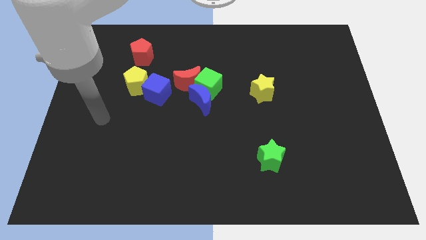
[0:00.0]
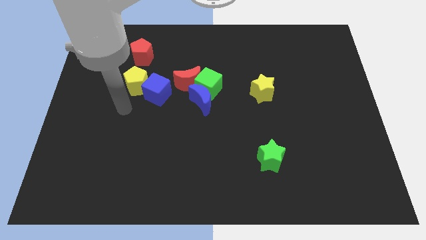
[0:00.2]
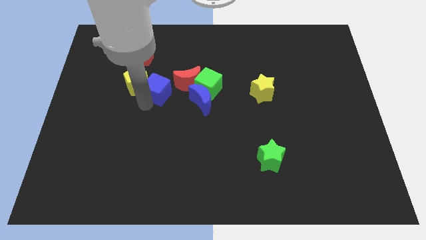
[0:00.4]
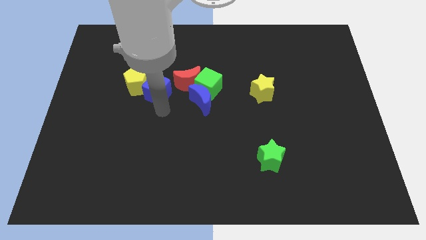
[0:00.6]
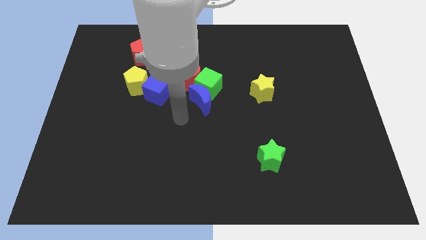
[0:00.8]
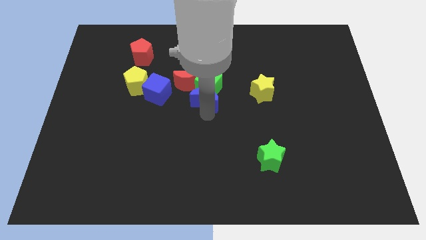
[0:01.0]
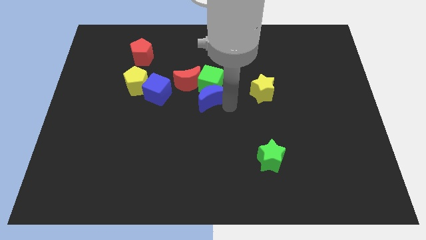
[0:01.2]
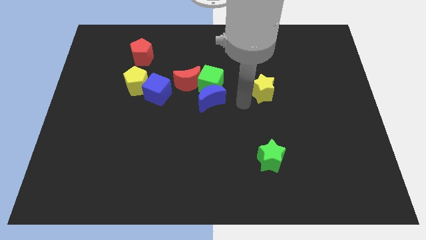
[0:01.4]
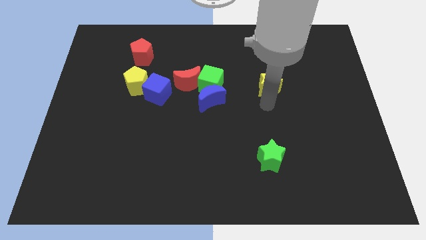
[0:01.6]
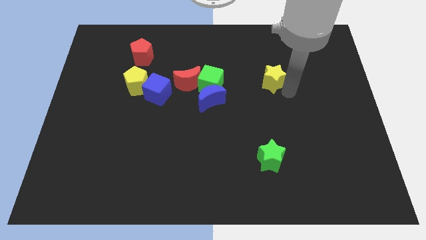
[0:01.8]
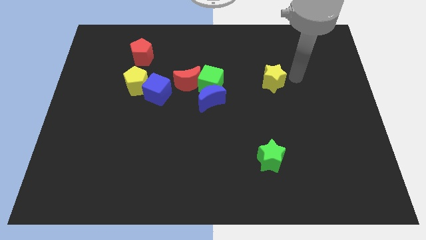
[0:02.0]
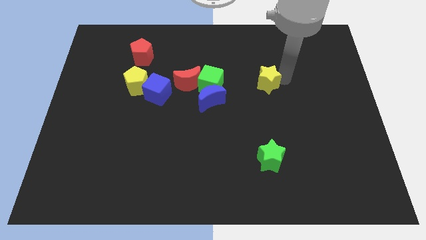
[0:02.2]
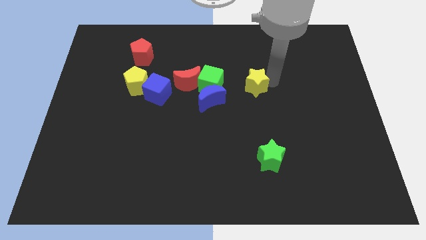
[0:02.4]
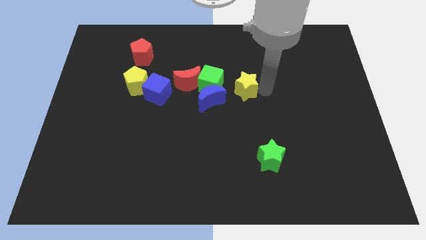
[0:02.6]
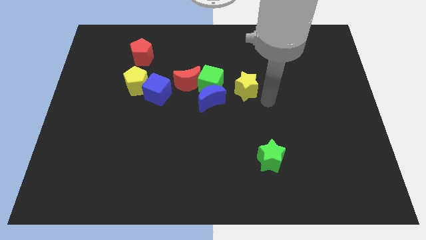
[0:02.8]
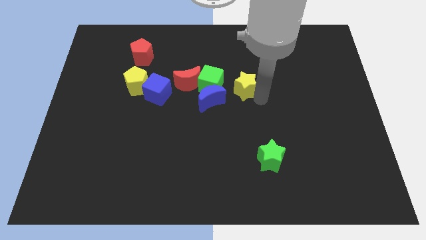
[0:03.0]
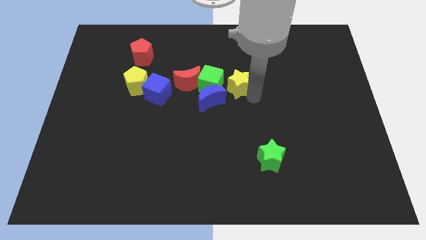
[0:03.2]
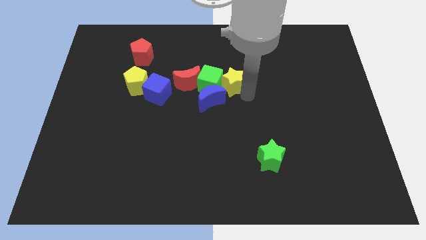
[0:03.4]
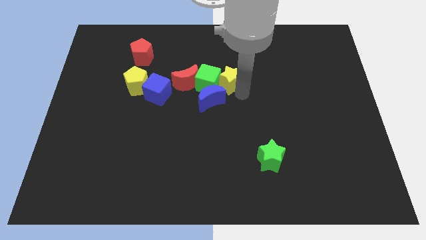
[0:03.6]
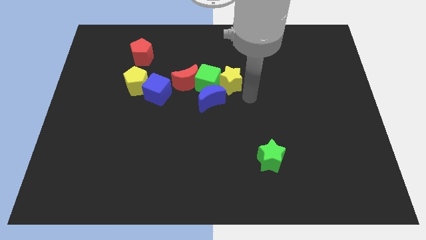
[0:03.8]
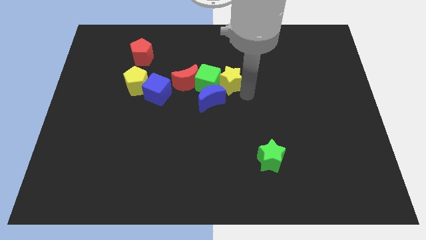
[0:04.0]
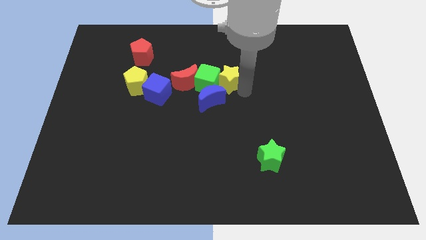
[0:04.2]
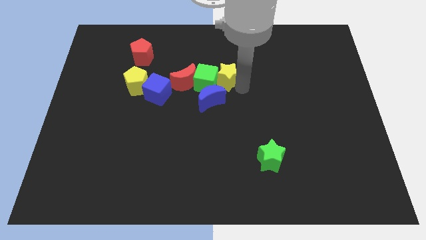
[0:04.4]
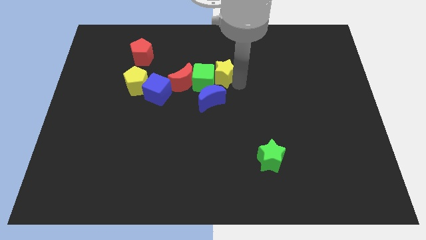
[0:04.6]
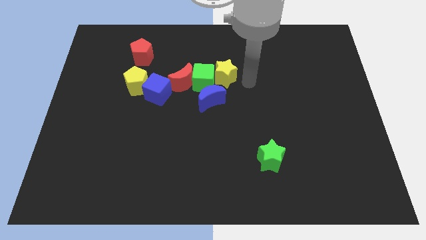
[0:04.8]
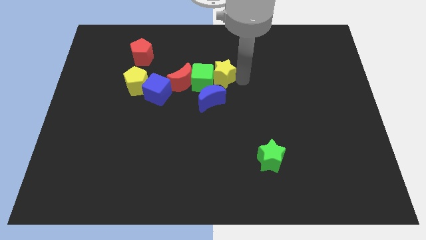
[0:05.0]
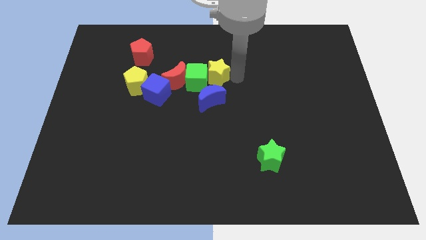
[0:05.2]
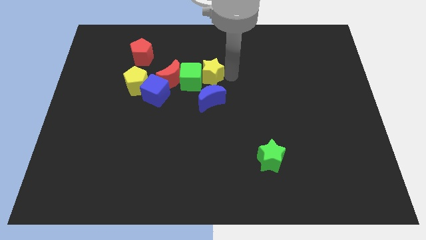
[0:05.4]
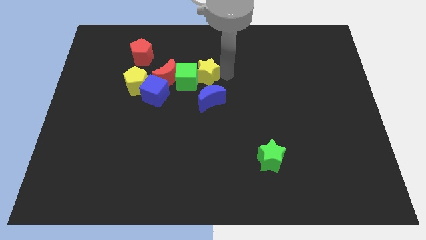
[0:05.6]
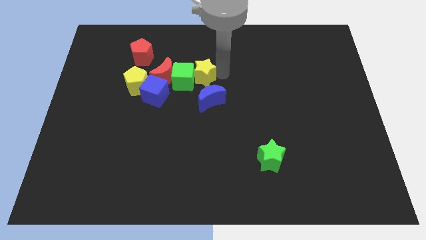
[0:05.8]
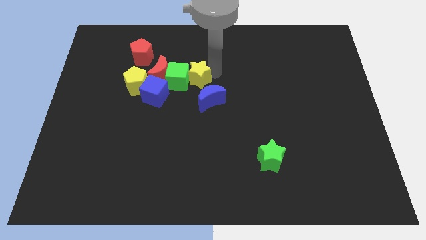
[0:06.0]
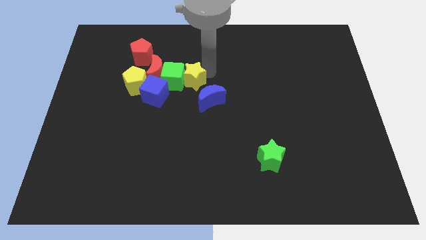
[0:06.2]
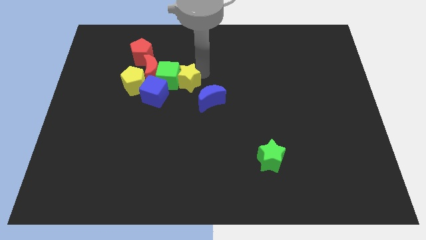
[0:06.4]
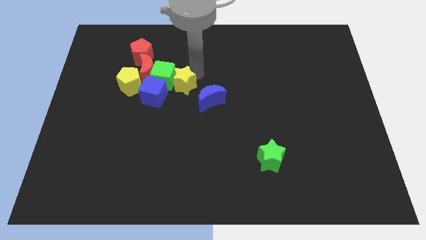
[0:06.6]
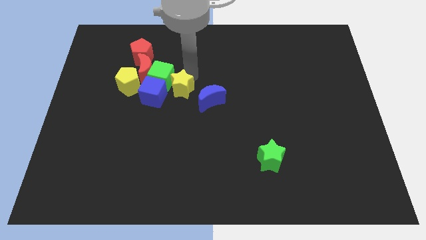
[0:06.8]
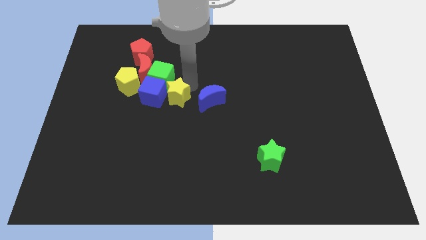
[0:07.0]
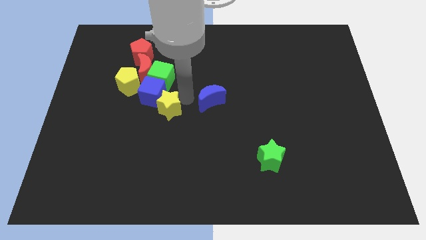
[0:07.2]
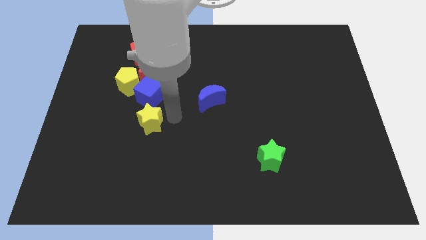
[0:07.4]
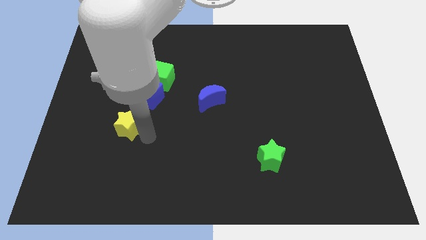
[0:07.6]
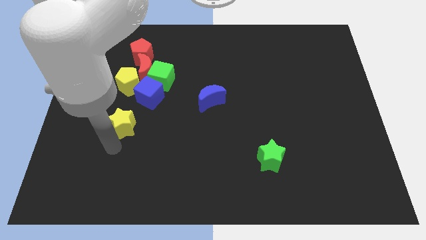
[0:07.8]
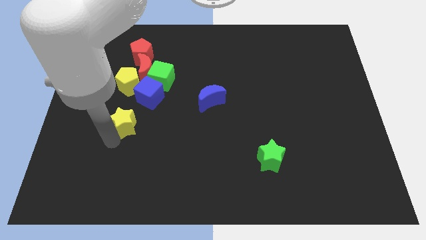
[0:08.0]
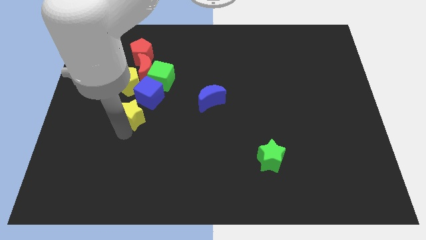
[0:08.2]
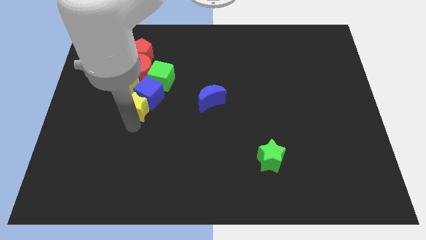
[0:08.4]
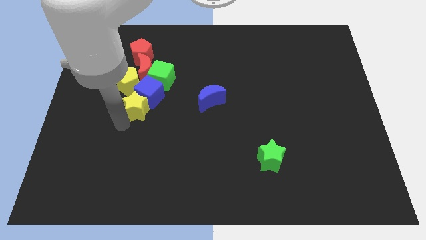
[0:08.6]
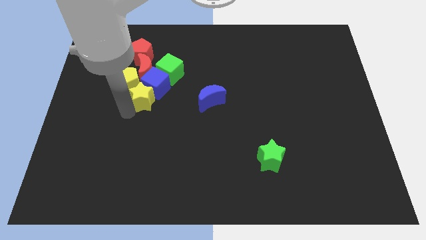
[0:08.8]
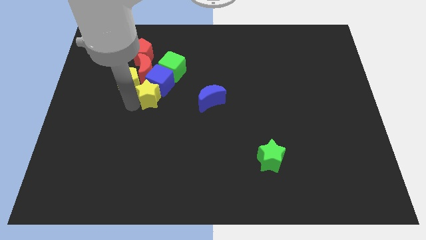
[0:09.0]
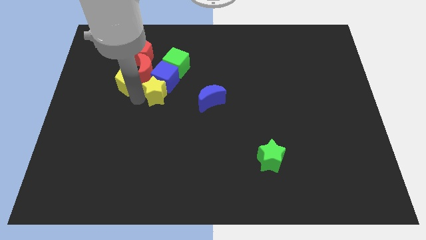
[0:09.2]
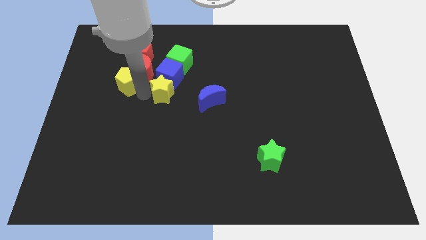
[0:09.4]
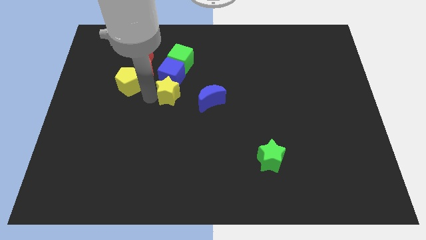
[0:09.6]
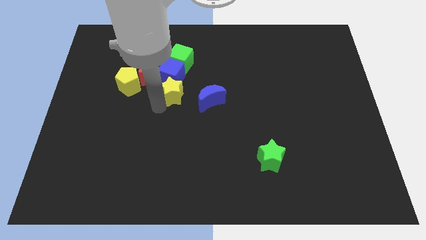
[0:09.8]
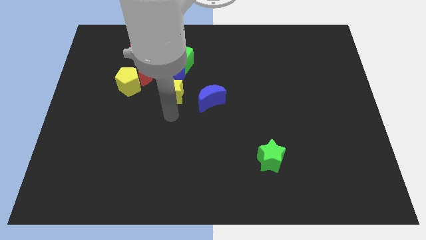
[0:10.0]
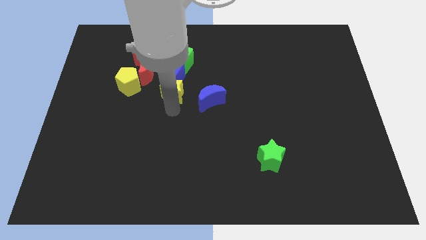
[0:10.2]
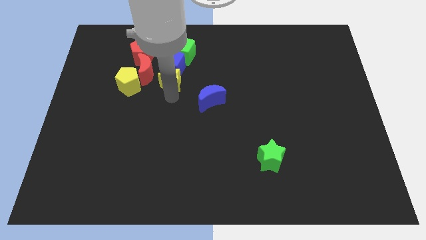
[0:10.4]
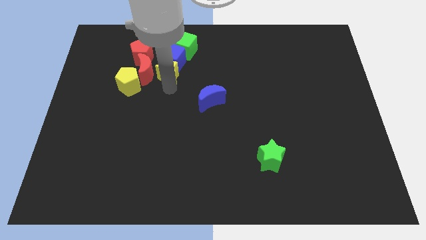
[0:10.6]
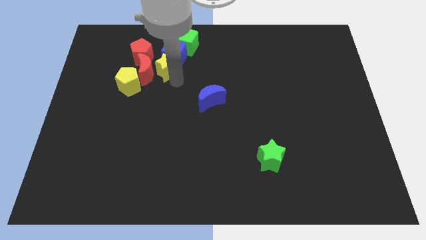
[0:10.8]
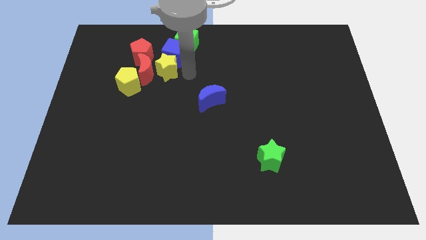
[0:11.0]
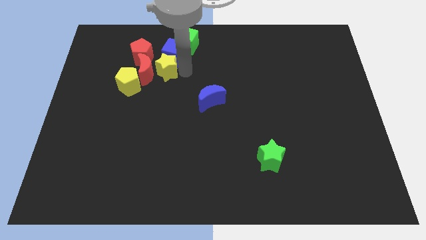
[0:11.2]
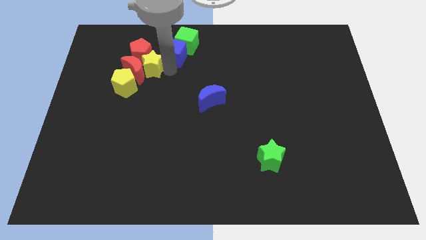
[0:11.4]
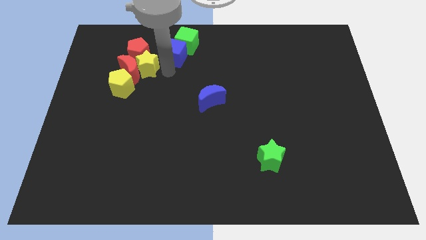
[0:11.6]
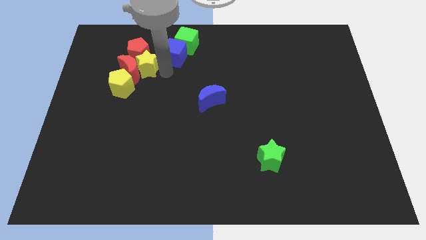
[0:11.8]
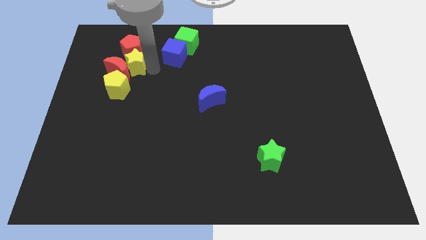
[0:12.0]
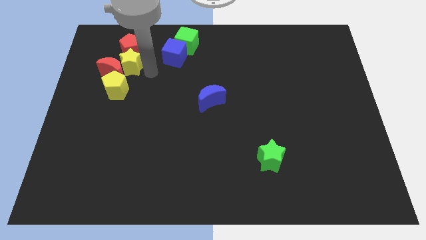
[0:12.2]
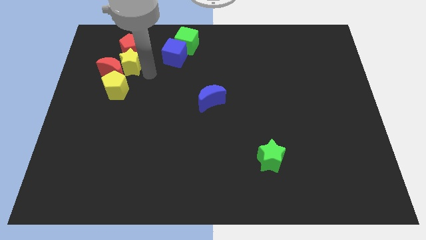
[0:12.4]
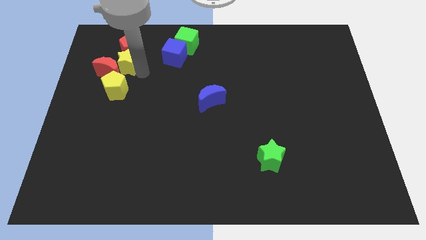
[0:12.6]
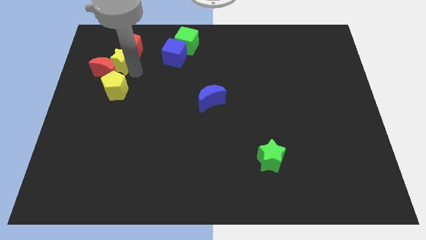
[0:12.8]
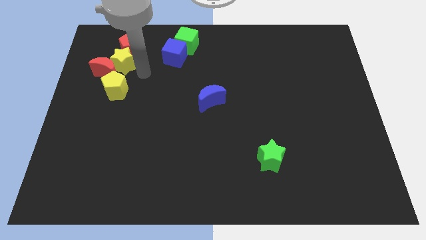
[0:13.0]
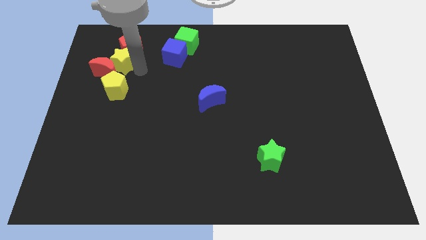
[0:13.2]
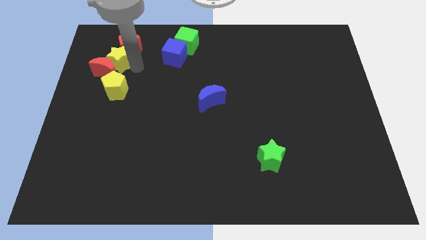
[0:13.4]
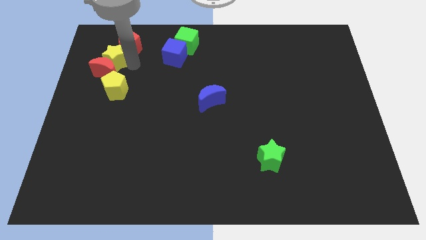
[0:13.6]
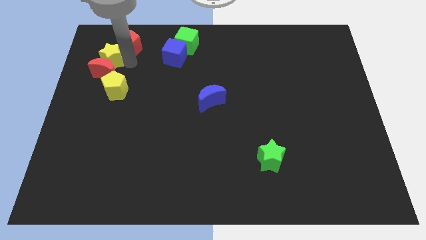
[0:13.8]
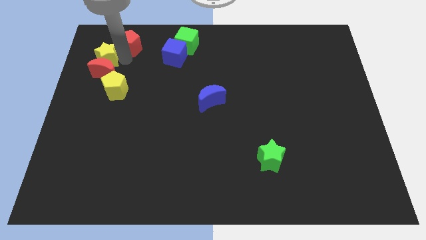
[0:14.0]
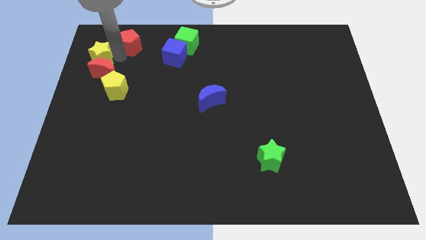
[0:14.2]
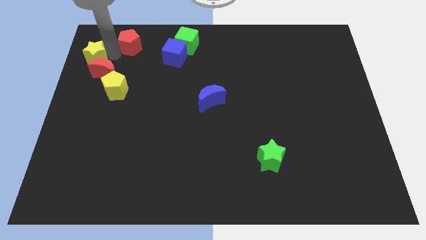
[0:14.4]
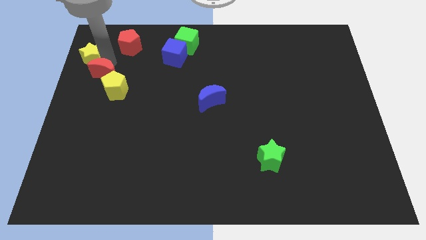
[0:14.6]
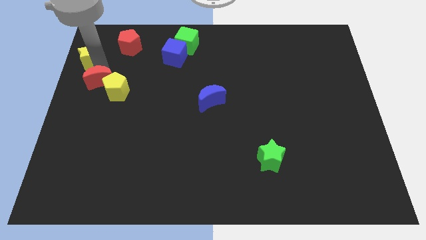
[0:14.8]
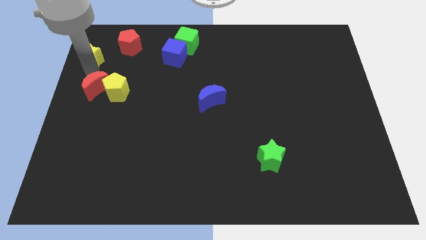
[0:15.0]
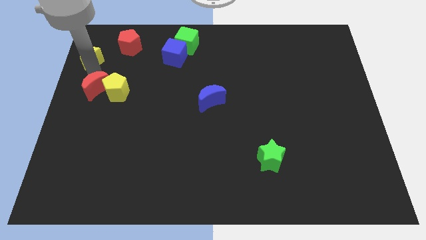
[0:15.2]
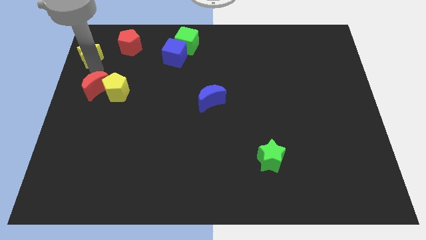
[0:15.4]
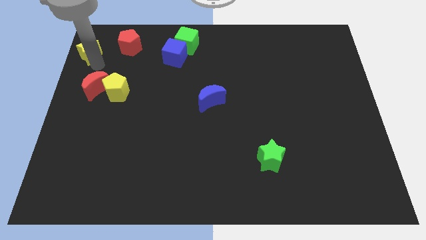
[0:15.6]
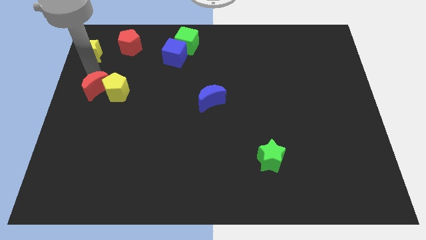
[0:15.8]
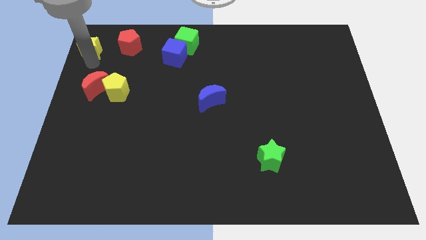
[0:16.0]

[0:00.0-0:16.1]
slide the yellow star to the upper left corner
